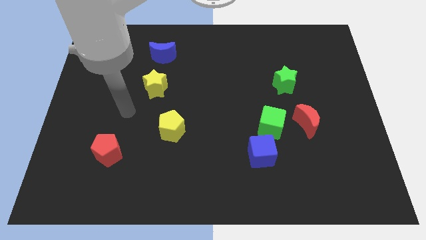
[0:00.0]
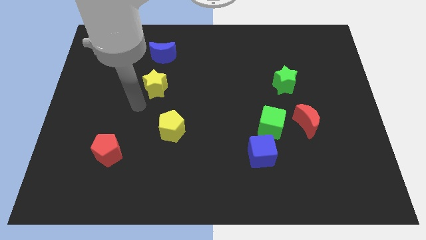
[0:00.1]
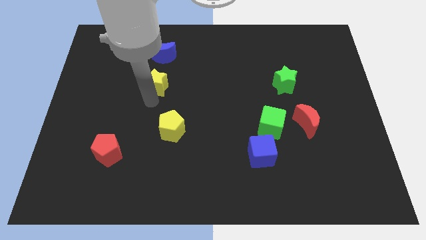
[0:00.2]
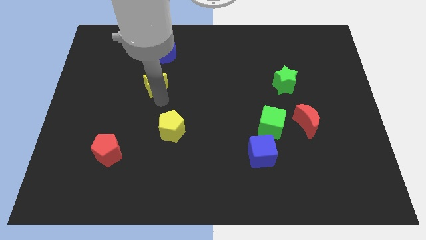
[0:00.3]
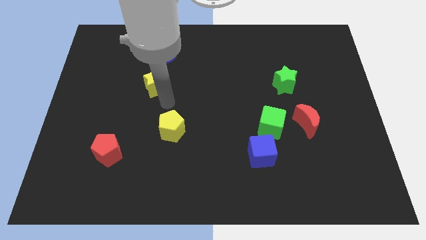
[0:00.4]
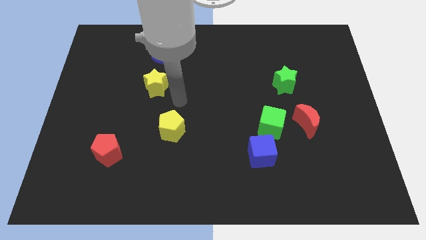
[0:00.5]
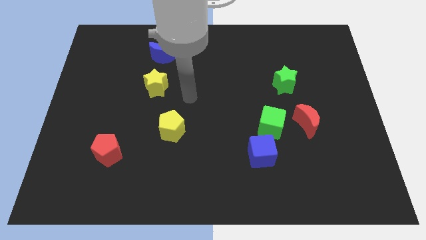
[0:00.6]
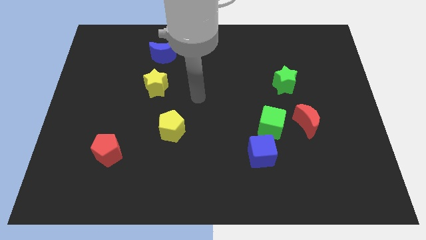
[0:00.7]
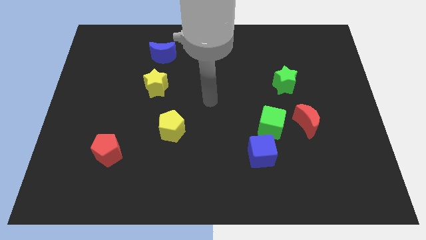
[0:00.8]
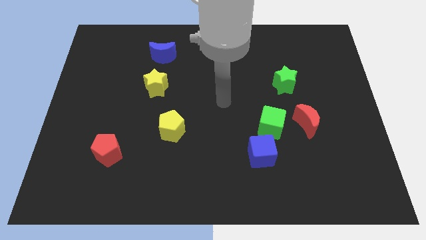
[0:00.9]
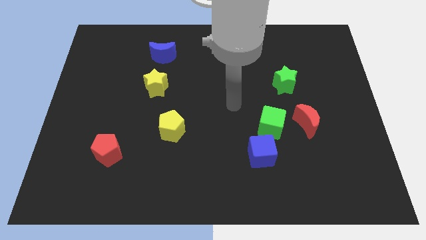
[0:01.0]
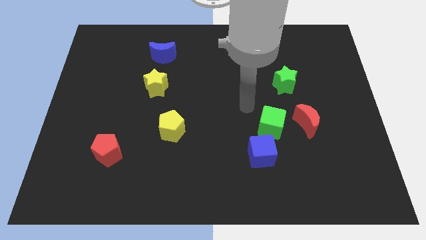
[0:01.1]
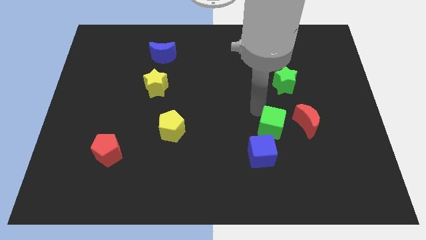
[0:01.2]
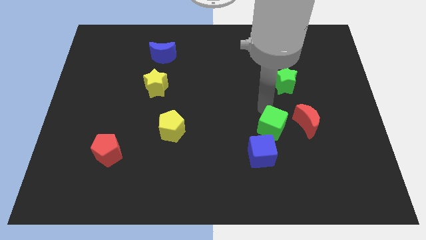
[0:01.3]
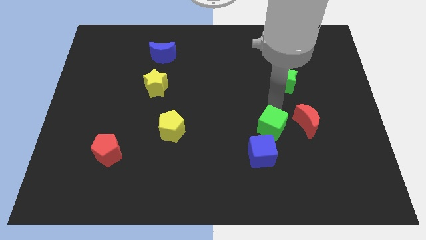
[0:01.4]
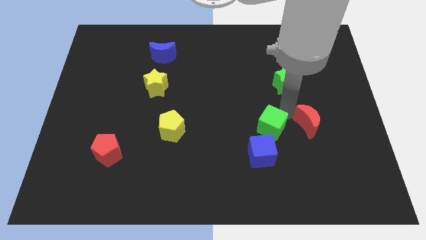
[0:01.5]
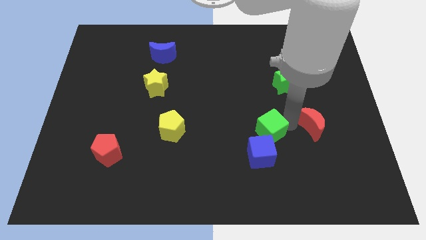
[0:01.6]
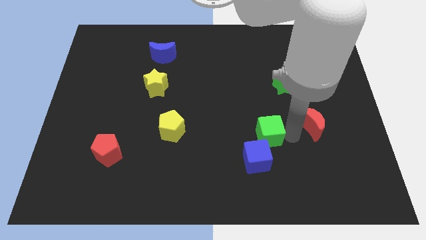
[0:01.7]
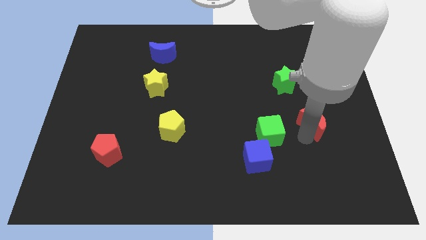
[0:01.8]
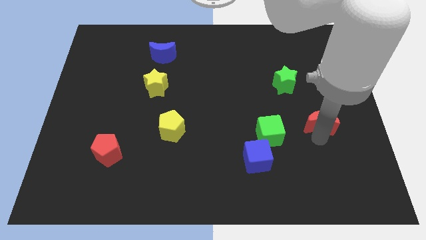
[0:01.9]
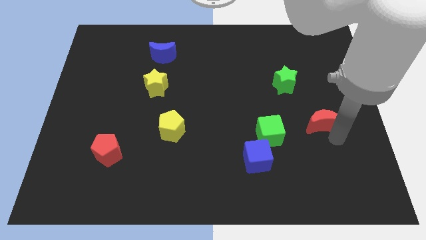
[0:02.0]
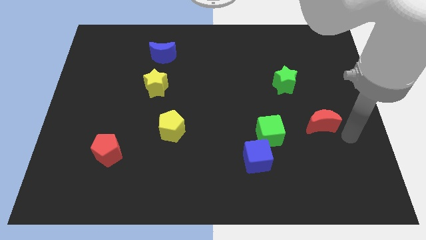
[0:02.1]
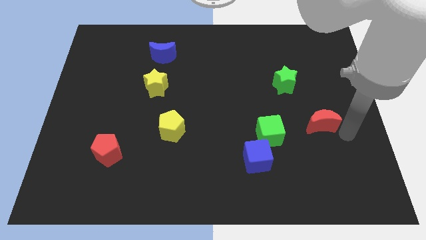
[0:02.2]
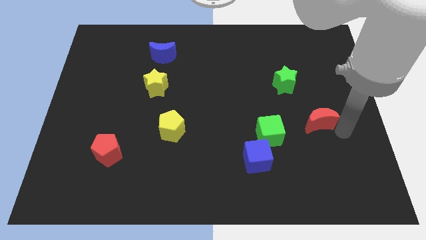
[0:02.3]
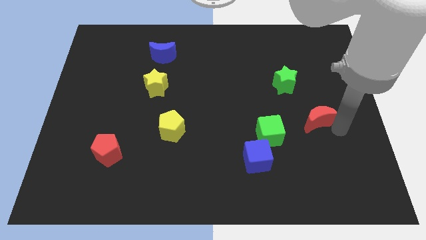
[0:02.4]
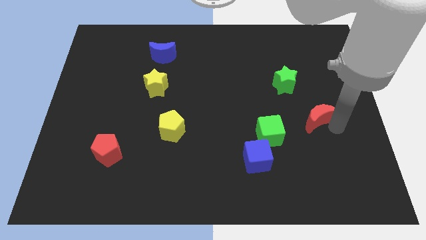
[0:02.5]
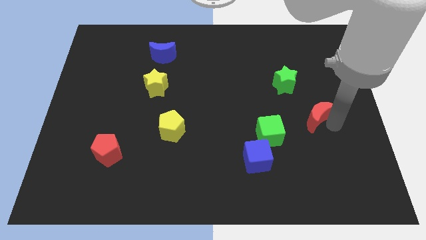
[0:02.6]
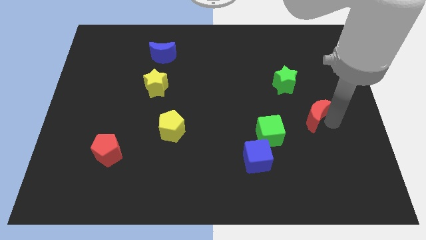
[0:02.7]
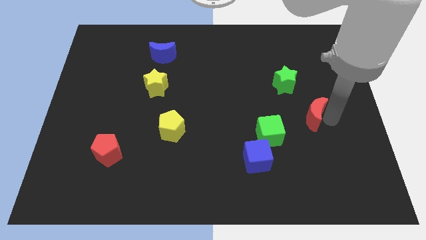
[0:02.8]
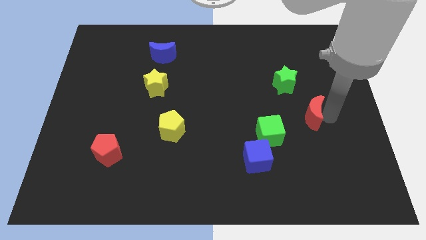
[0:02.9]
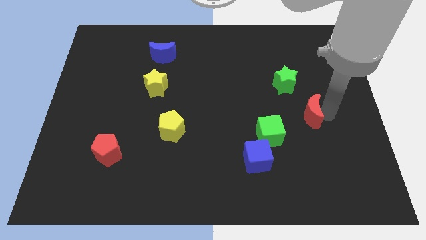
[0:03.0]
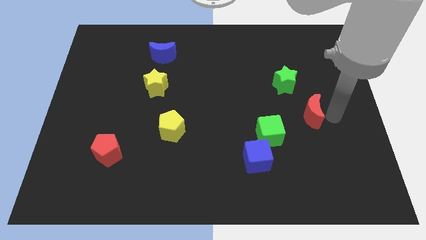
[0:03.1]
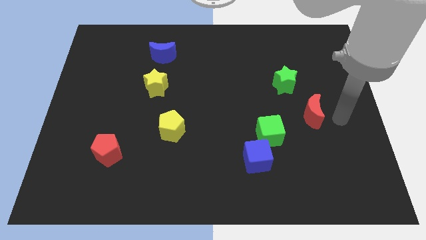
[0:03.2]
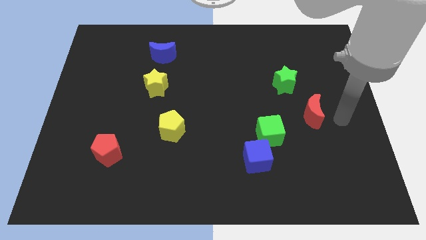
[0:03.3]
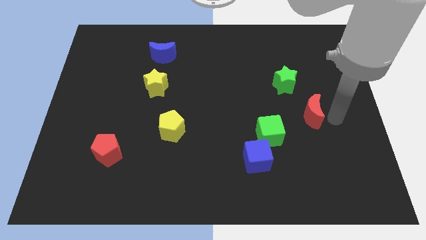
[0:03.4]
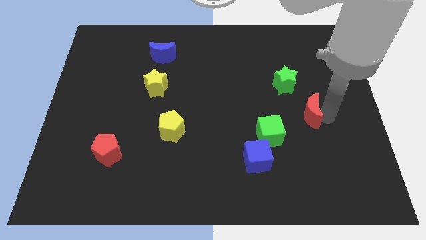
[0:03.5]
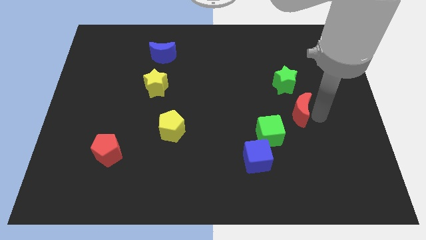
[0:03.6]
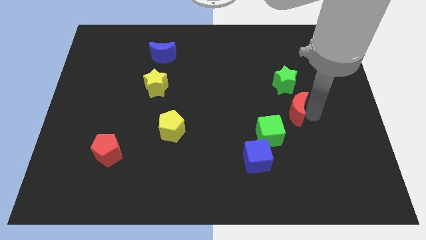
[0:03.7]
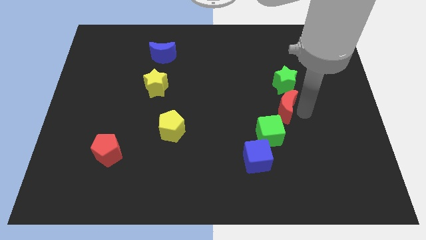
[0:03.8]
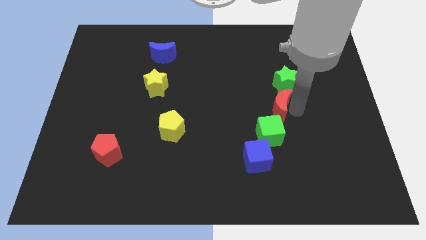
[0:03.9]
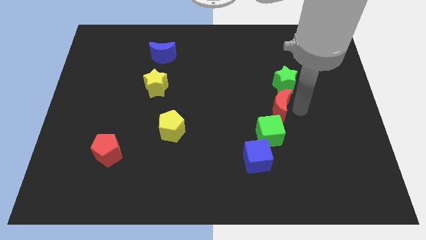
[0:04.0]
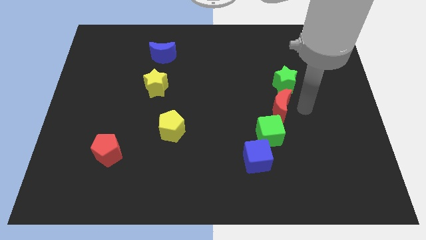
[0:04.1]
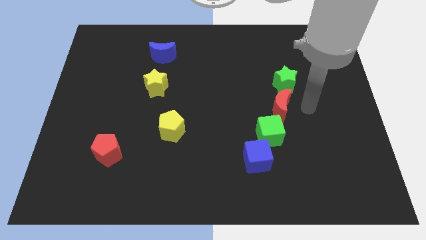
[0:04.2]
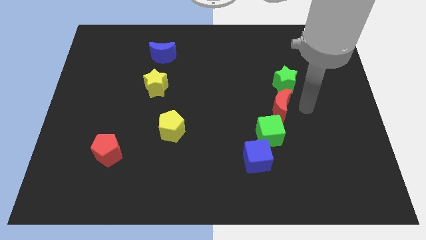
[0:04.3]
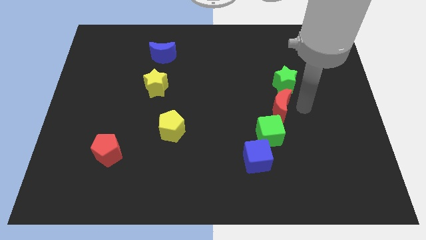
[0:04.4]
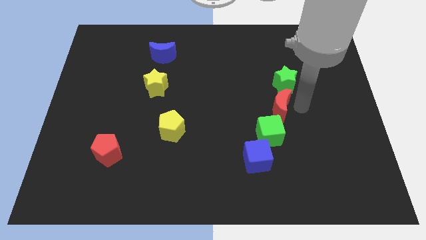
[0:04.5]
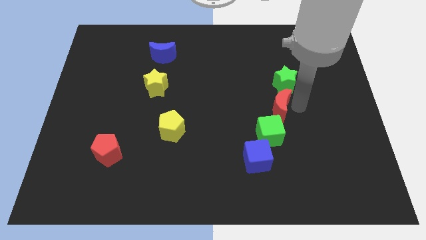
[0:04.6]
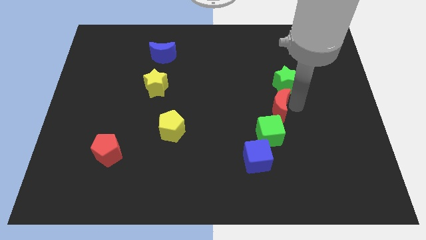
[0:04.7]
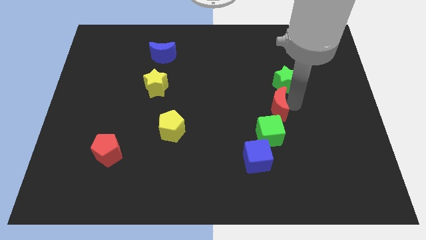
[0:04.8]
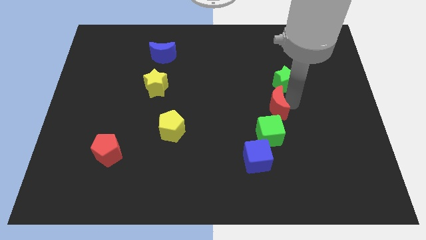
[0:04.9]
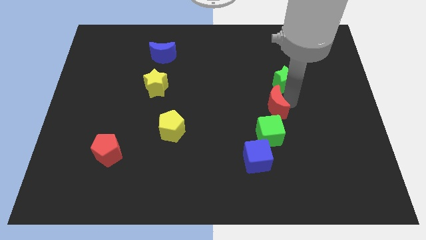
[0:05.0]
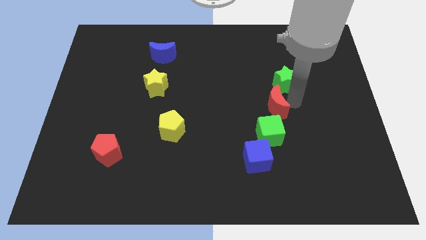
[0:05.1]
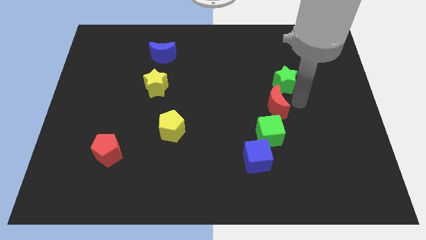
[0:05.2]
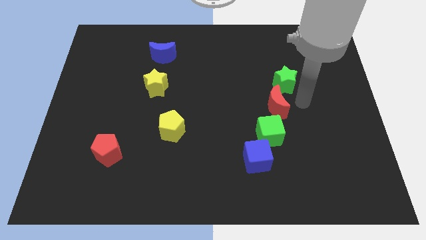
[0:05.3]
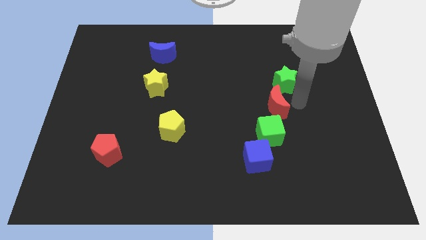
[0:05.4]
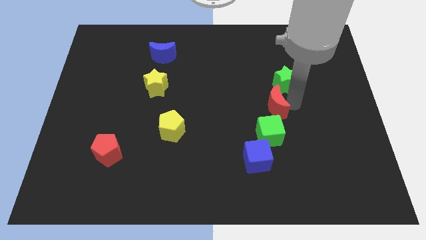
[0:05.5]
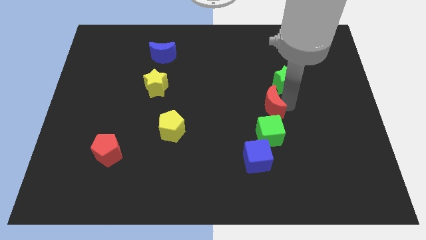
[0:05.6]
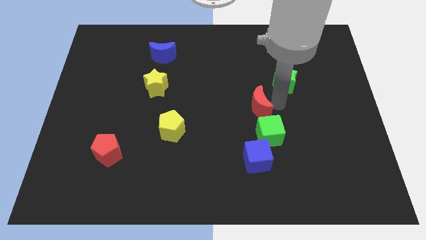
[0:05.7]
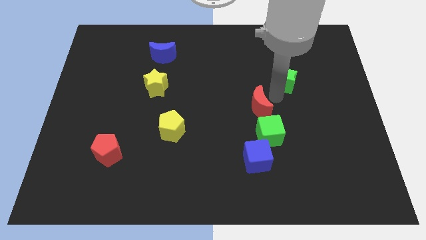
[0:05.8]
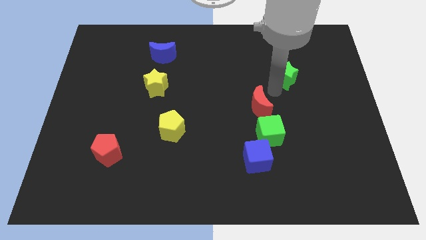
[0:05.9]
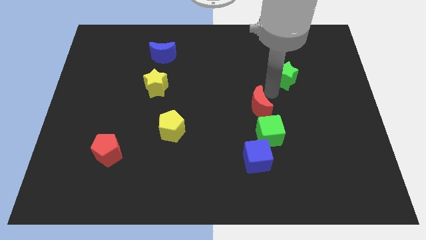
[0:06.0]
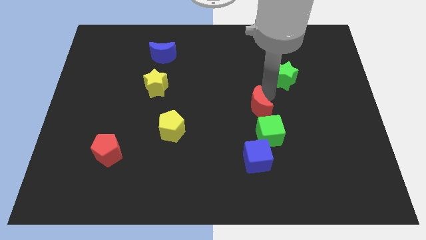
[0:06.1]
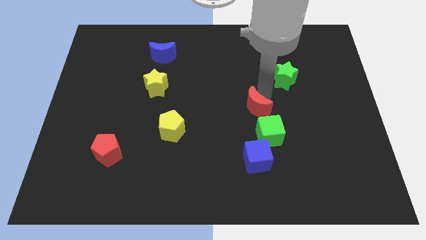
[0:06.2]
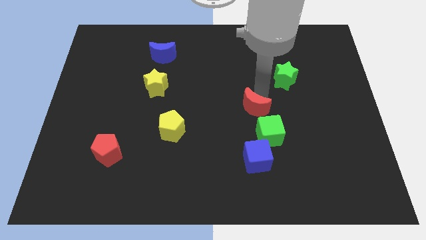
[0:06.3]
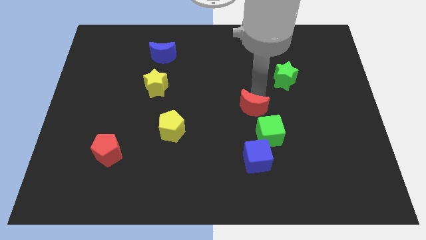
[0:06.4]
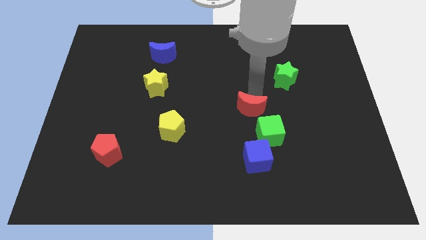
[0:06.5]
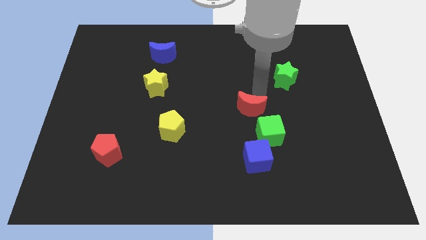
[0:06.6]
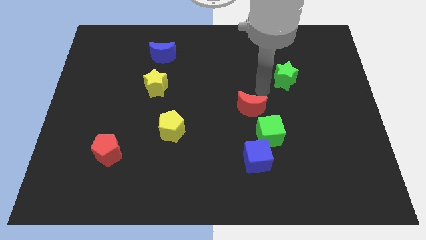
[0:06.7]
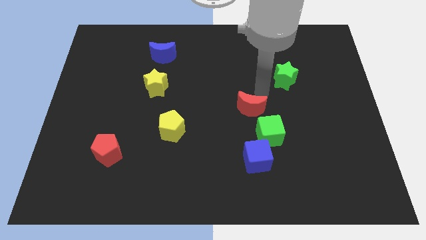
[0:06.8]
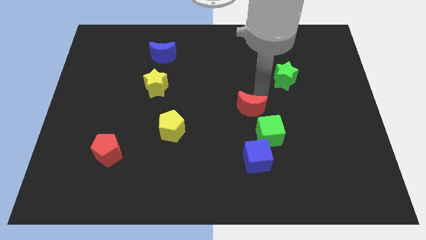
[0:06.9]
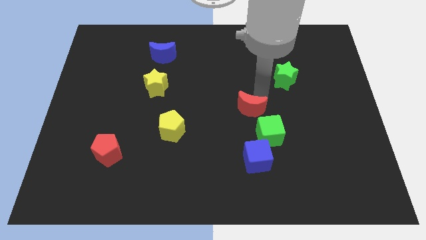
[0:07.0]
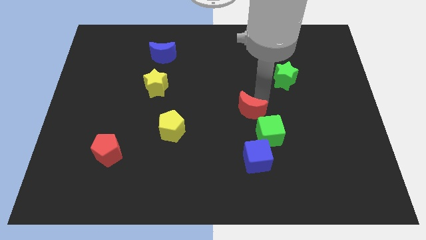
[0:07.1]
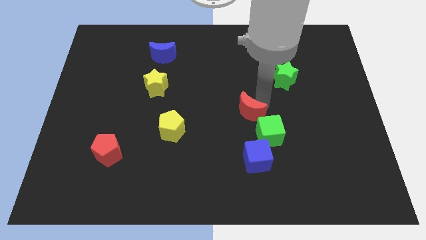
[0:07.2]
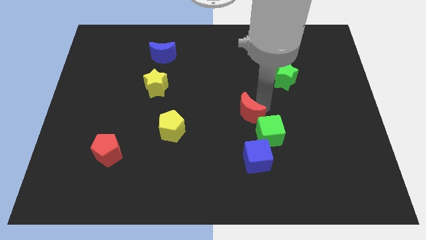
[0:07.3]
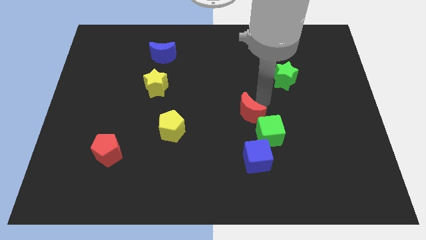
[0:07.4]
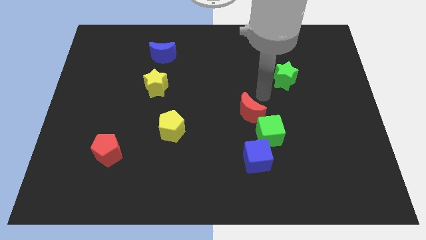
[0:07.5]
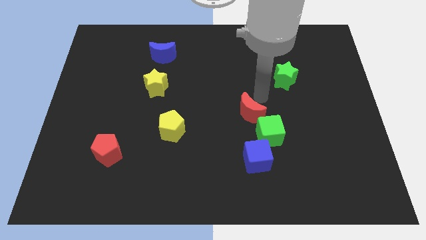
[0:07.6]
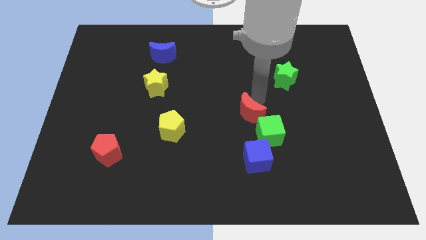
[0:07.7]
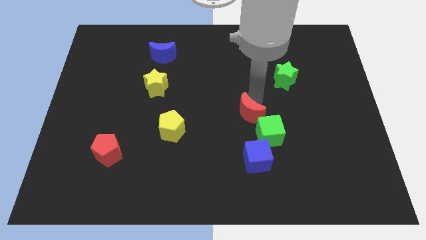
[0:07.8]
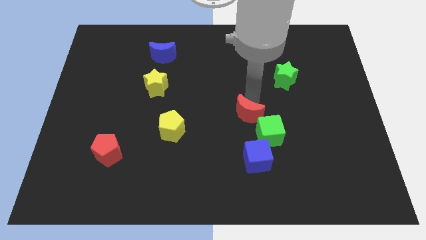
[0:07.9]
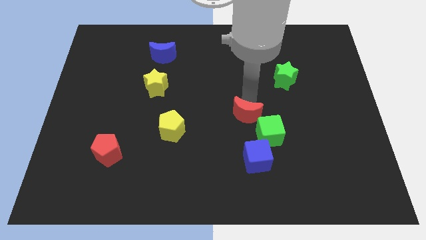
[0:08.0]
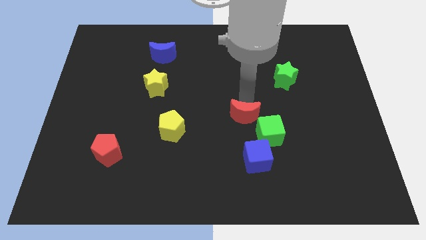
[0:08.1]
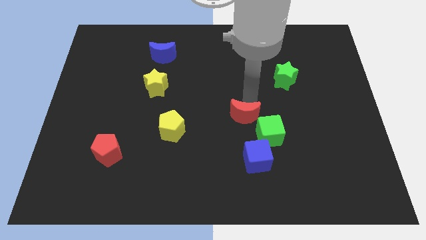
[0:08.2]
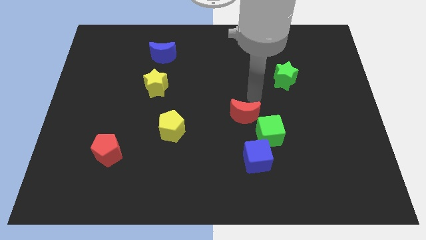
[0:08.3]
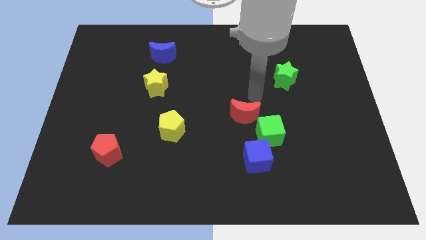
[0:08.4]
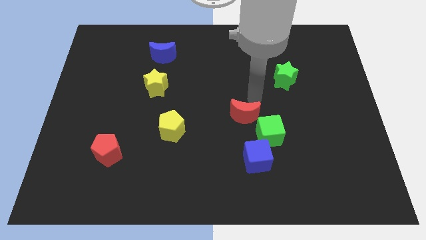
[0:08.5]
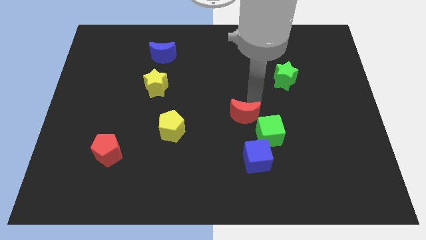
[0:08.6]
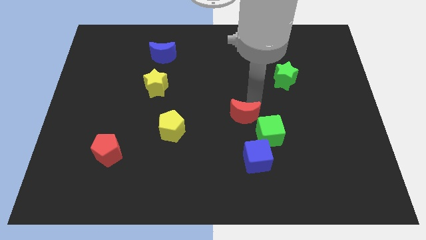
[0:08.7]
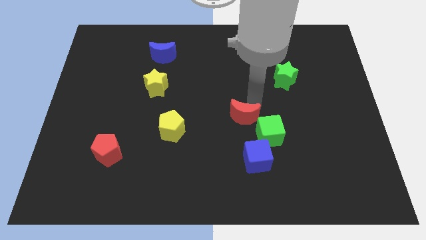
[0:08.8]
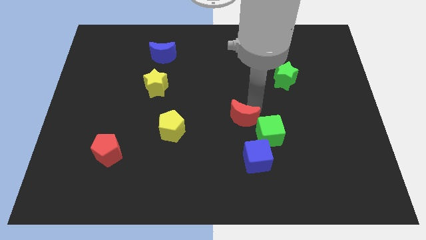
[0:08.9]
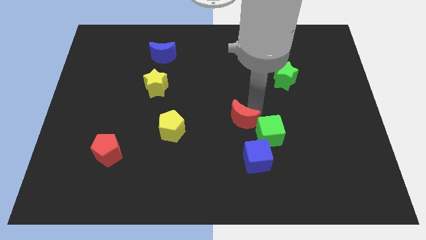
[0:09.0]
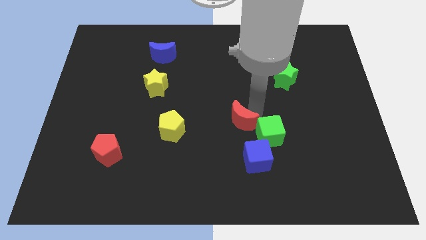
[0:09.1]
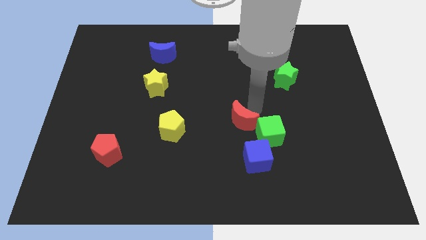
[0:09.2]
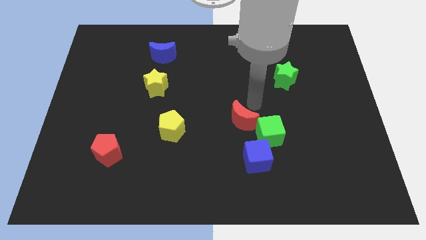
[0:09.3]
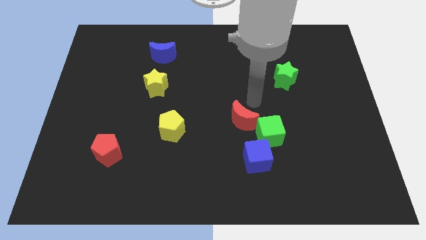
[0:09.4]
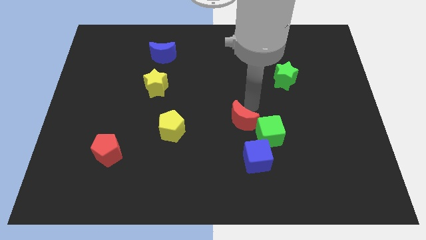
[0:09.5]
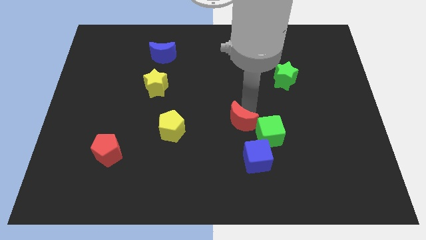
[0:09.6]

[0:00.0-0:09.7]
push the red moon diagonally up and to the left of the blue cube
